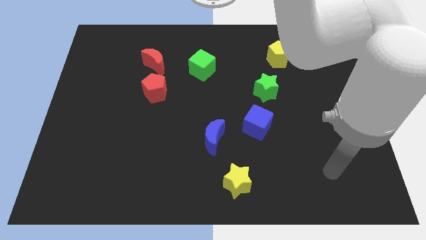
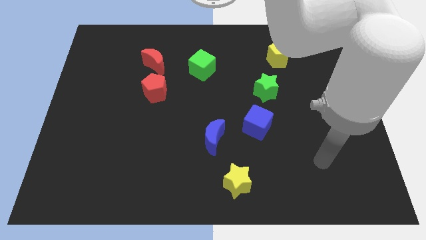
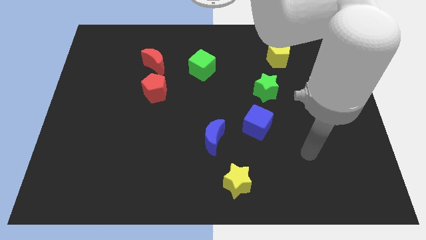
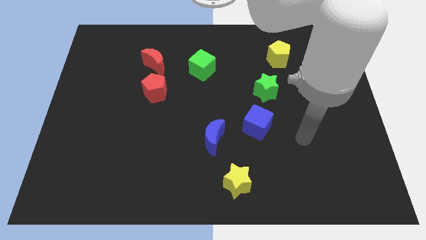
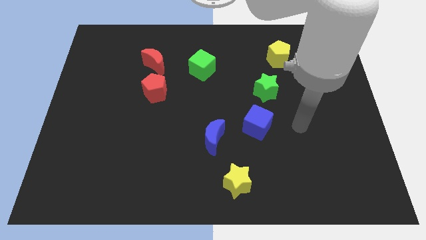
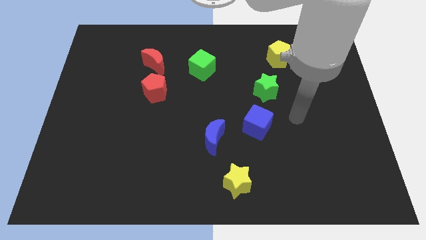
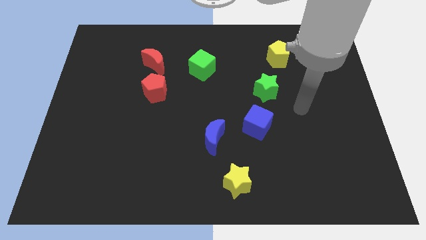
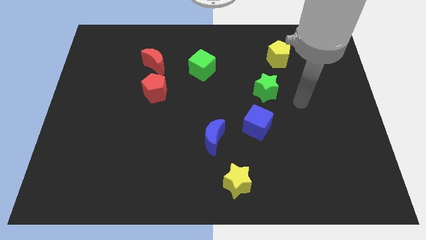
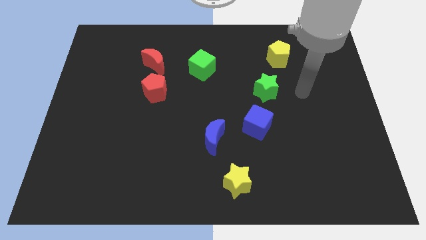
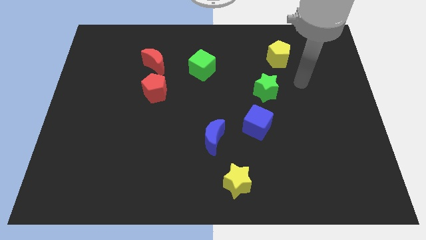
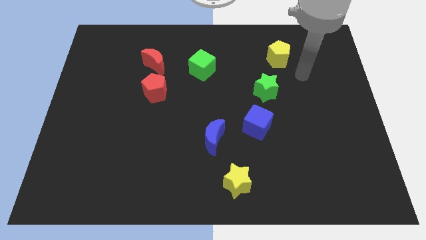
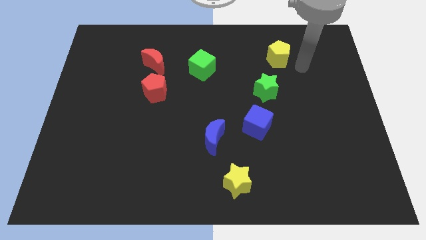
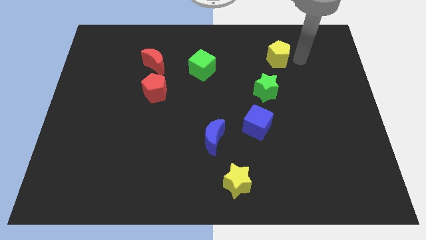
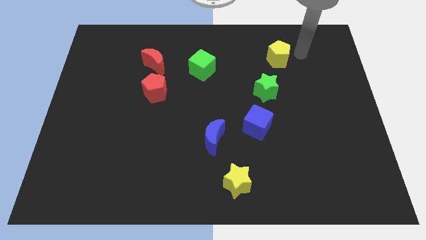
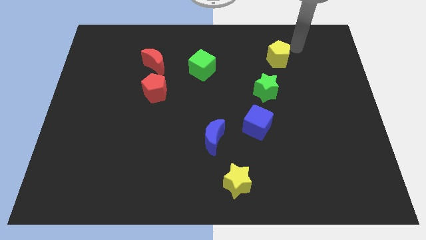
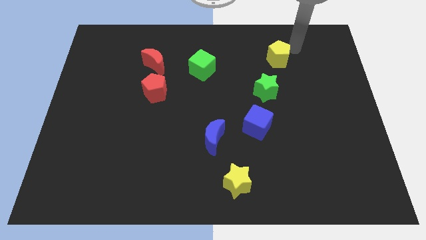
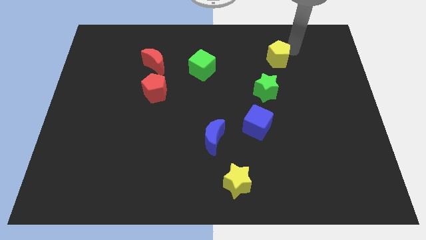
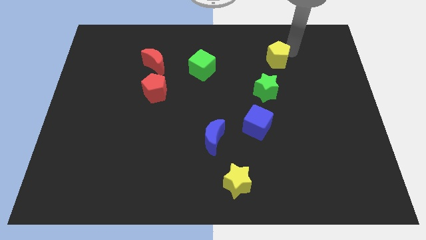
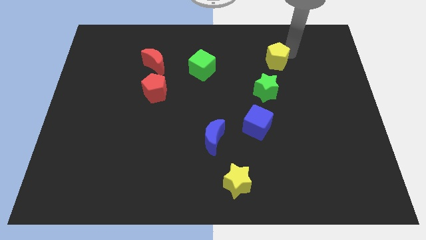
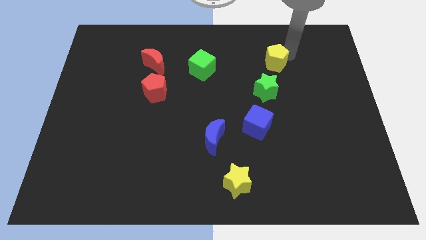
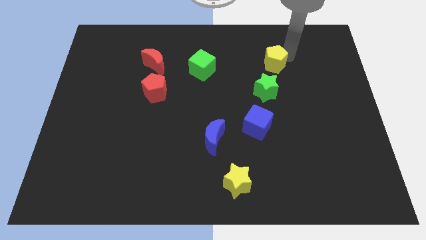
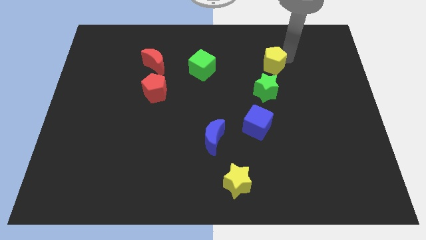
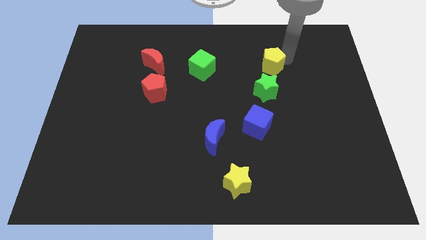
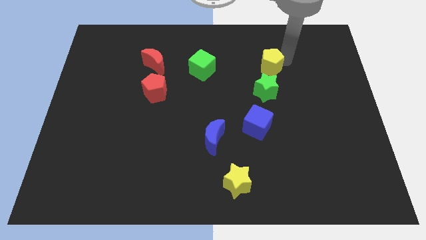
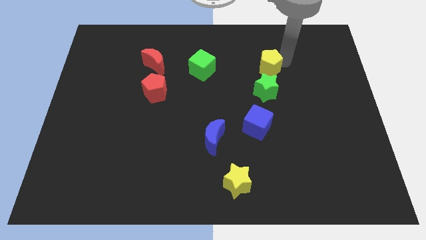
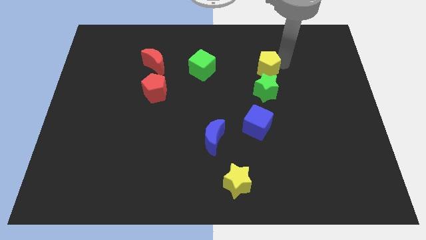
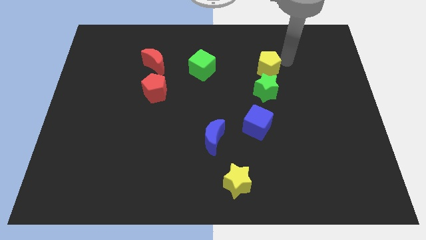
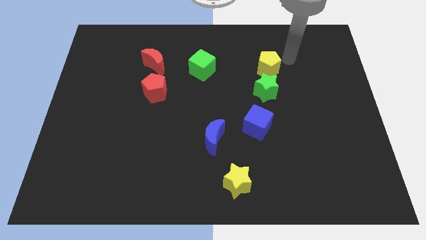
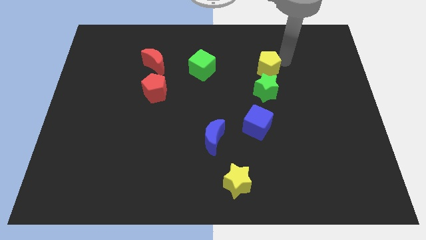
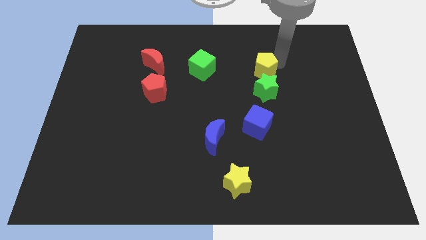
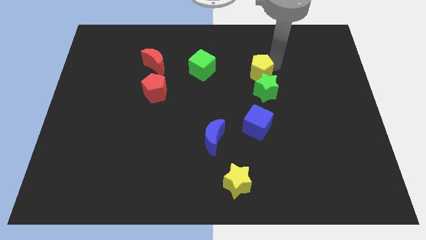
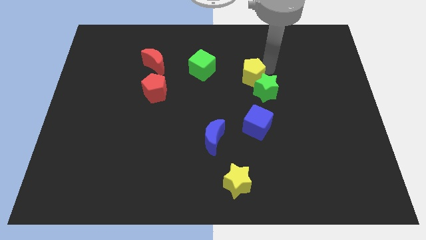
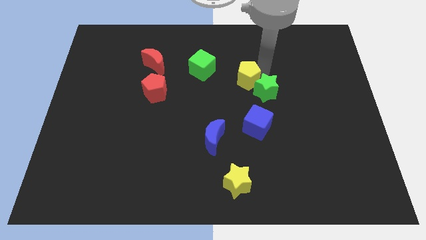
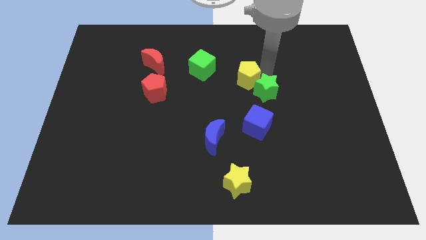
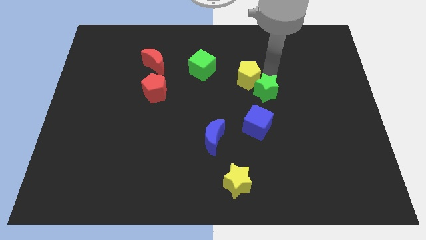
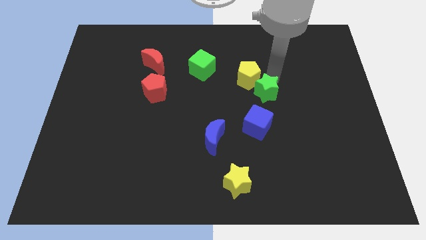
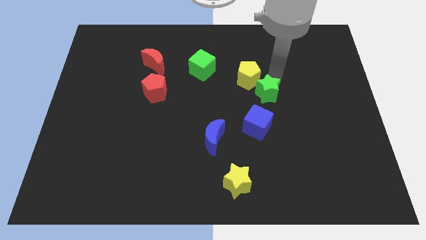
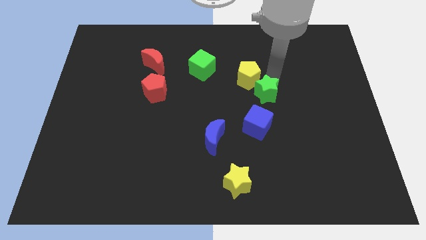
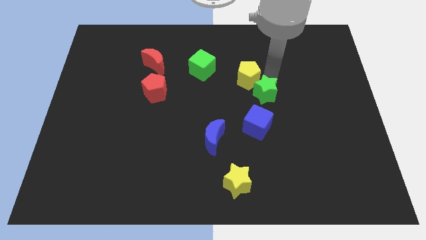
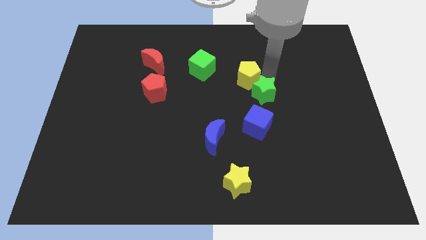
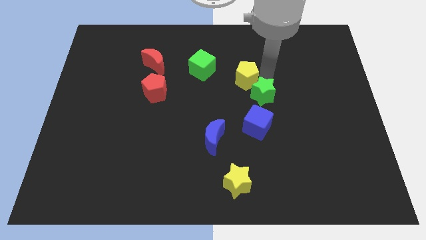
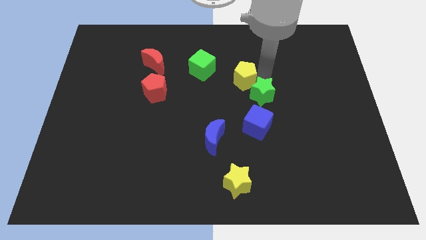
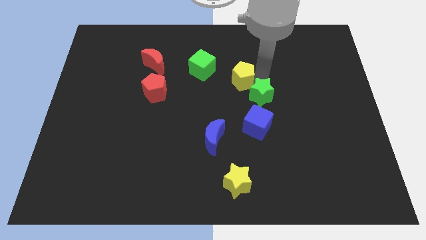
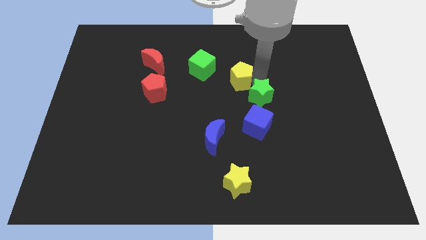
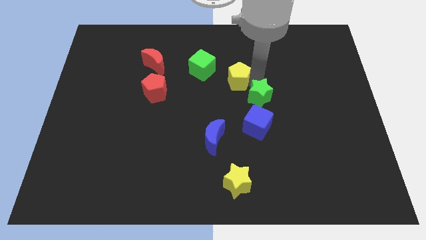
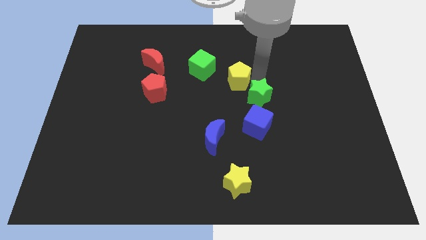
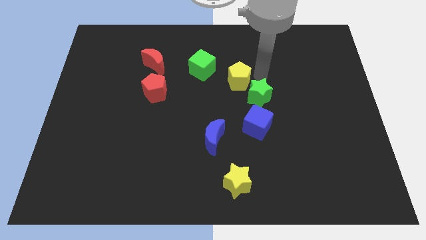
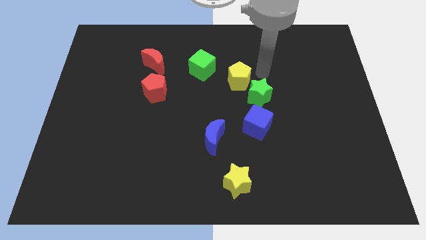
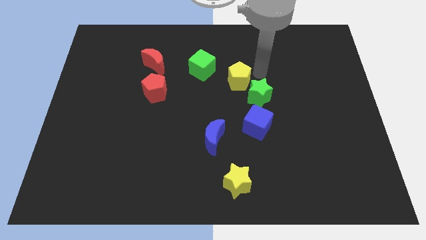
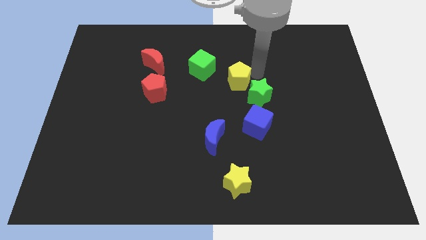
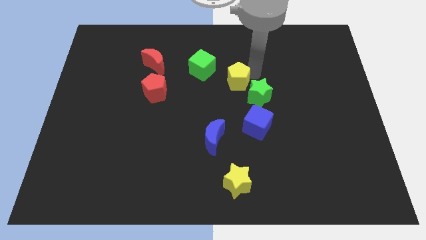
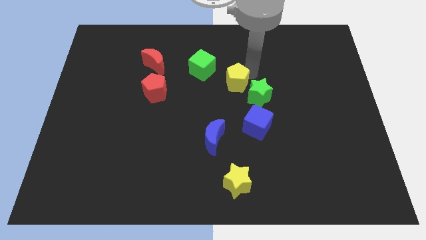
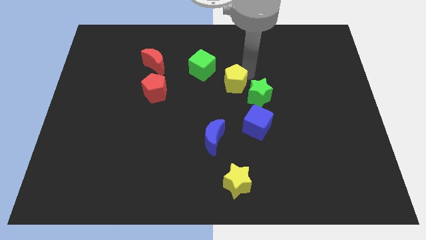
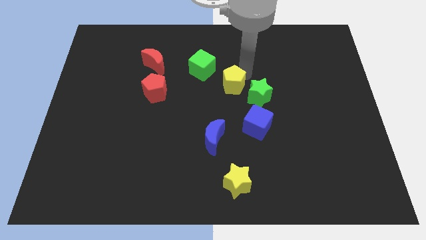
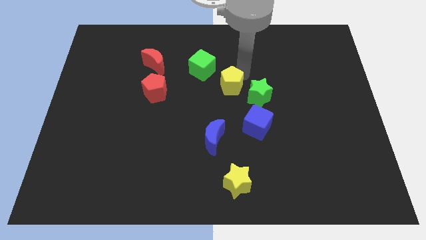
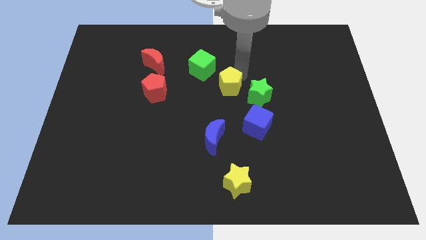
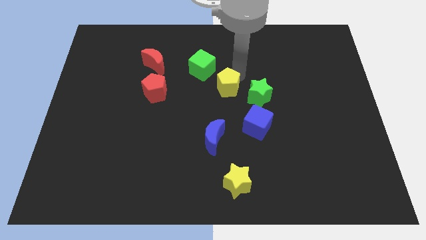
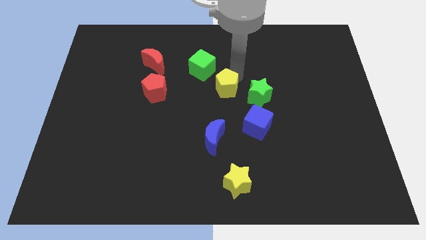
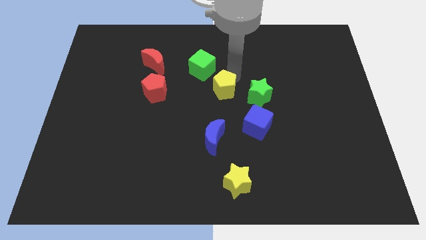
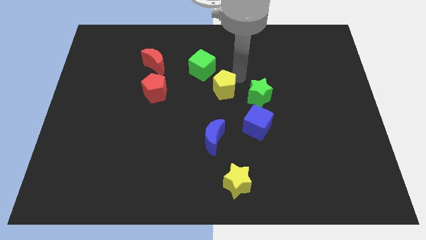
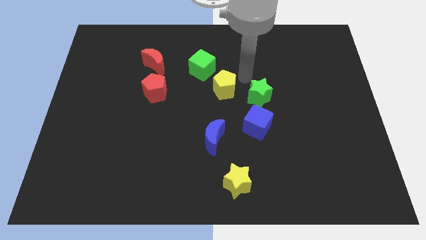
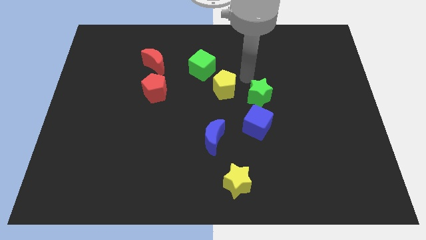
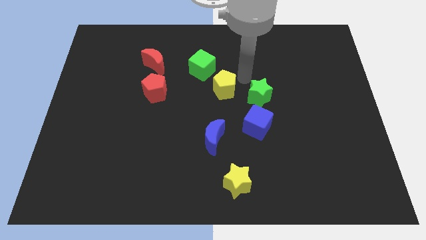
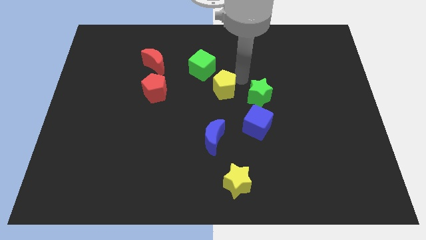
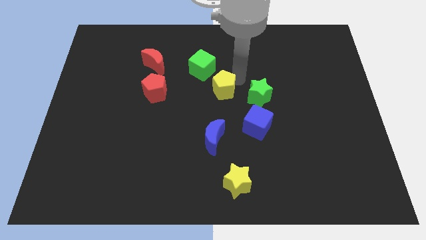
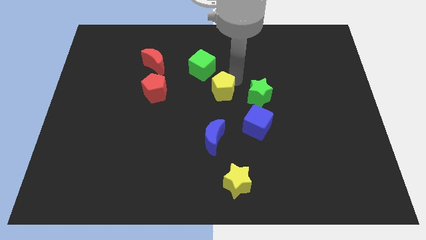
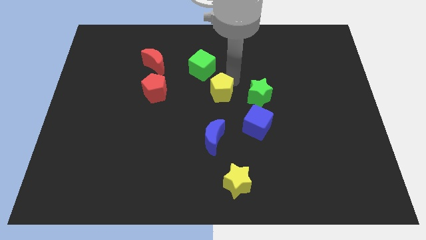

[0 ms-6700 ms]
slide the yellow pentagon below the green cube

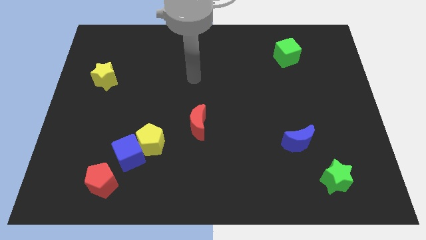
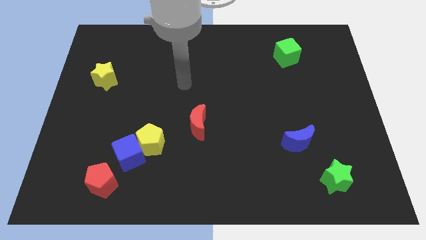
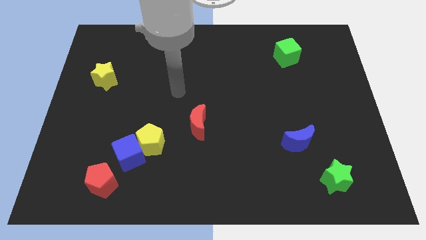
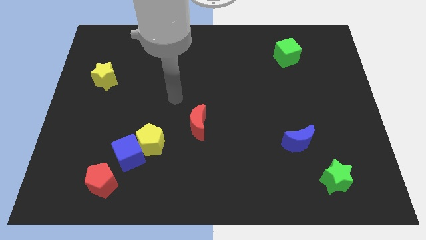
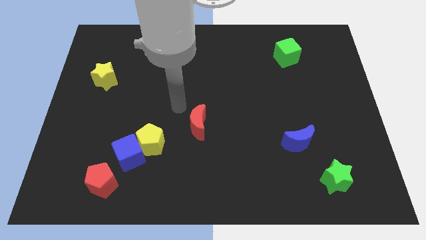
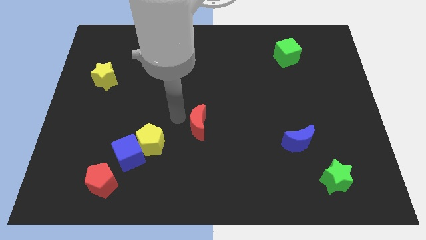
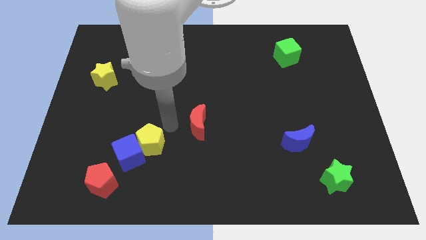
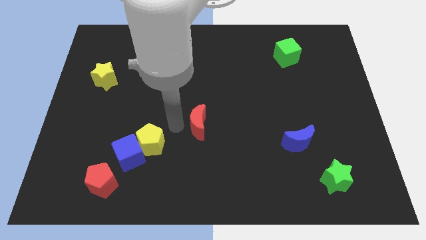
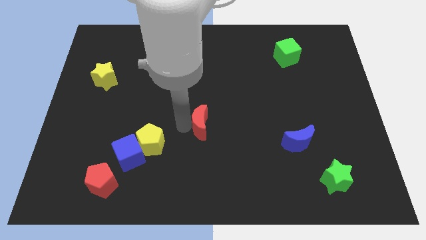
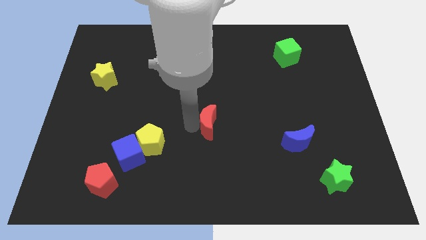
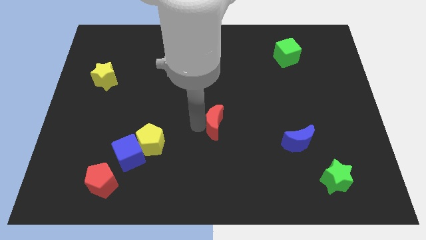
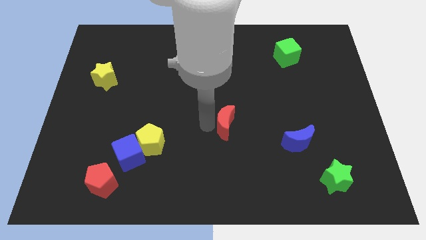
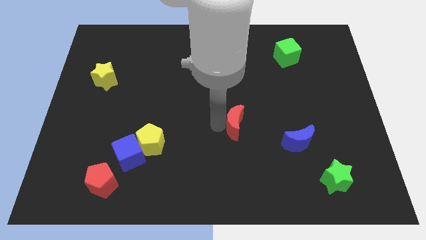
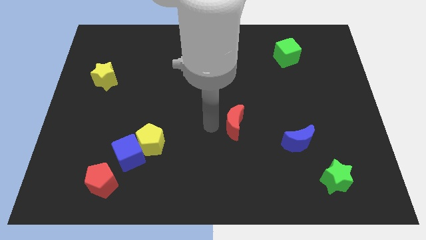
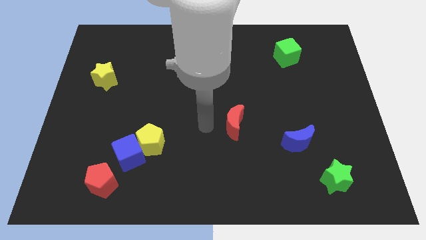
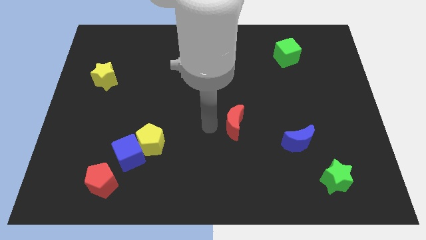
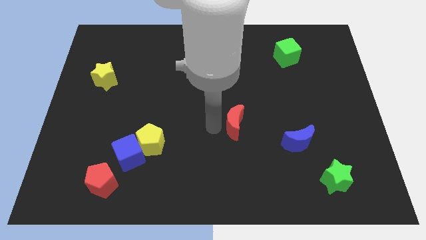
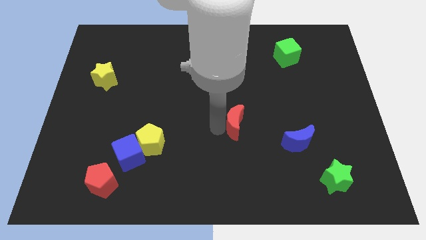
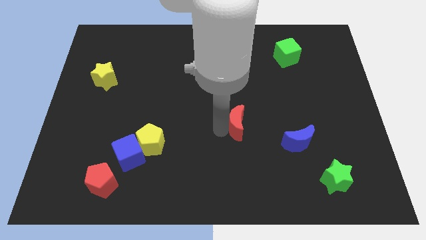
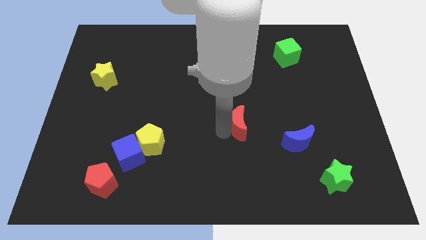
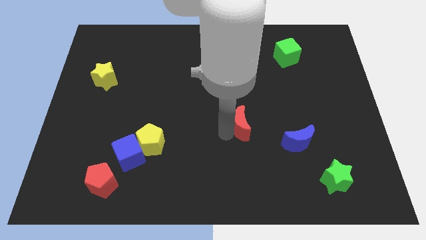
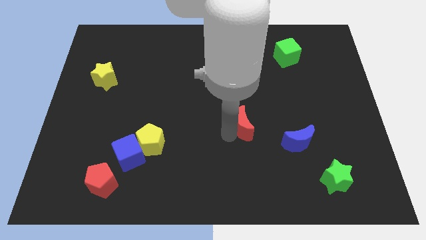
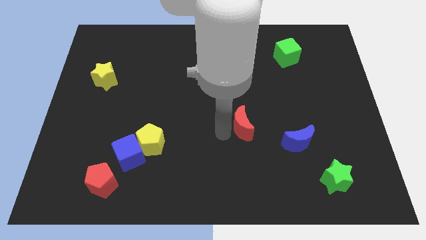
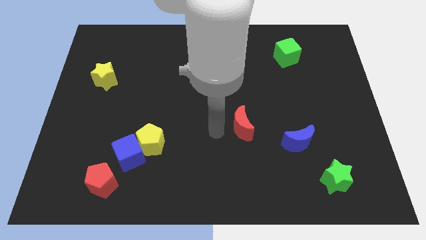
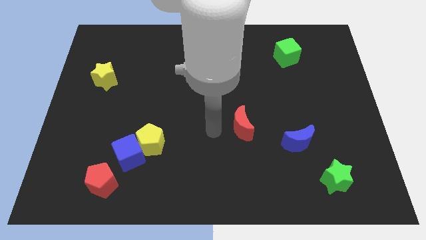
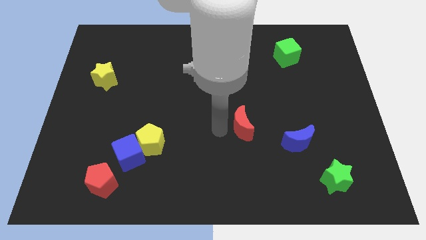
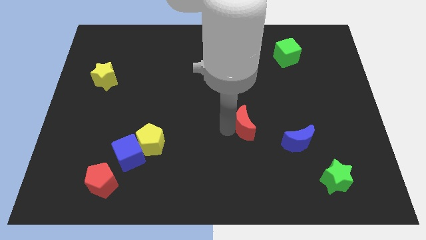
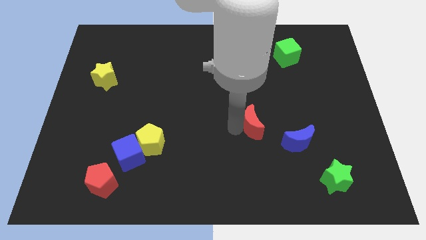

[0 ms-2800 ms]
move the red moon to the top left side of the blue moon
